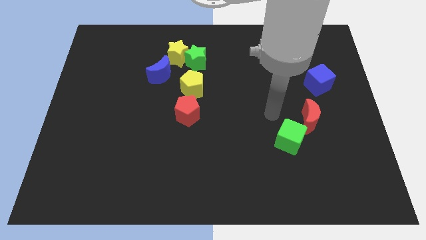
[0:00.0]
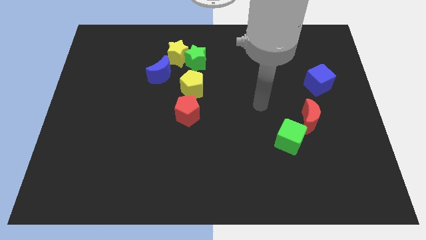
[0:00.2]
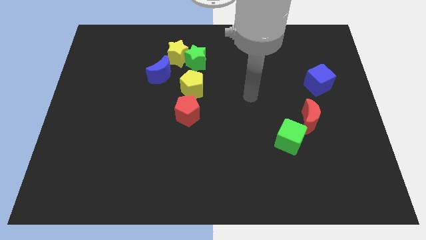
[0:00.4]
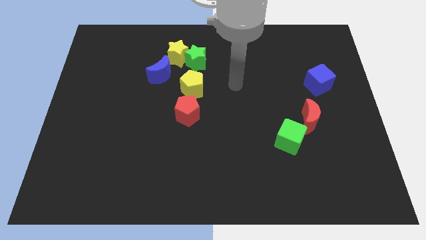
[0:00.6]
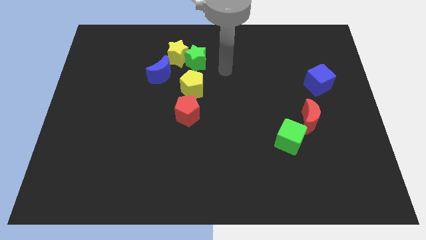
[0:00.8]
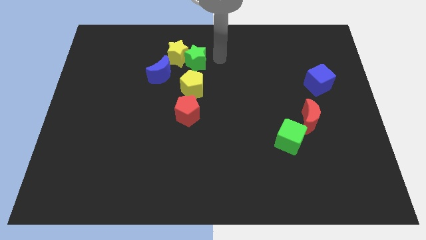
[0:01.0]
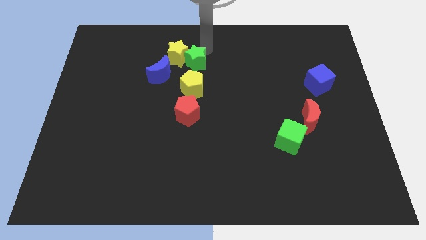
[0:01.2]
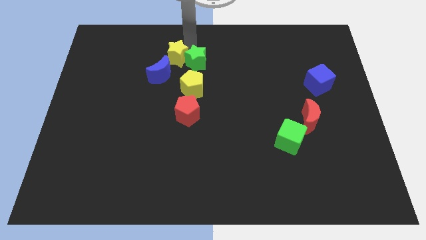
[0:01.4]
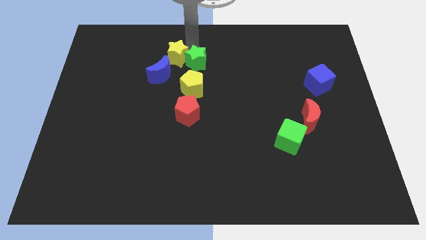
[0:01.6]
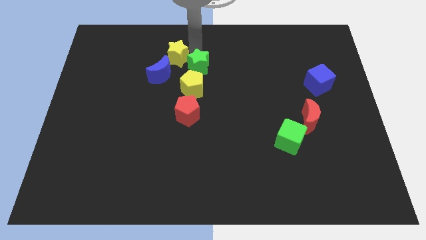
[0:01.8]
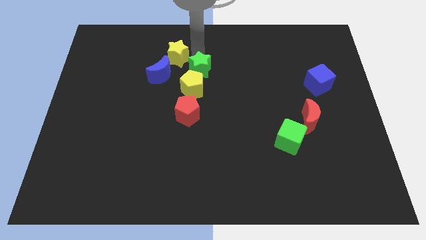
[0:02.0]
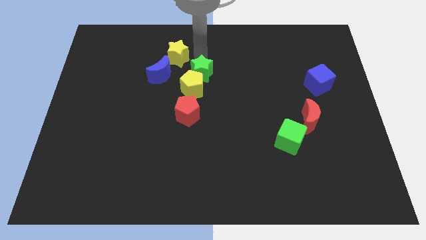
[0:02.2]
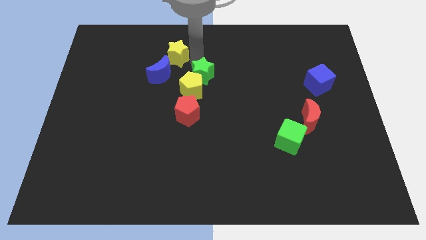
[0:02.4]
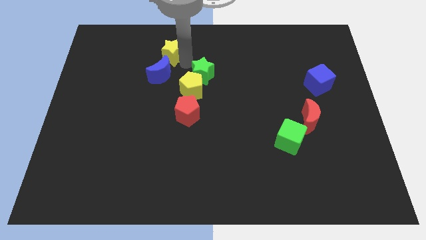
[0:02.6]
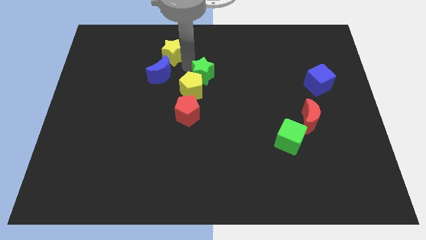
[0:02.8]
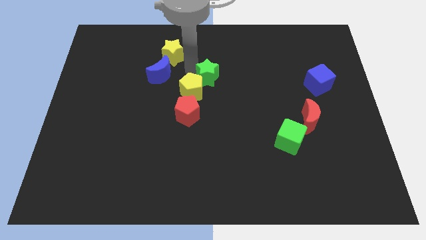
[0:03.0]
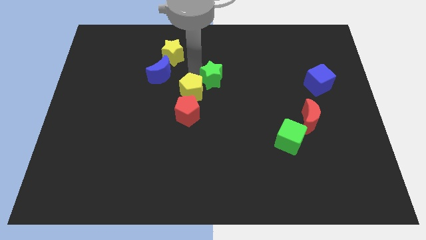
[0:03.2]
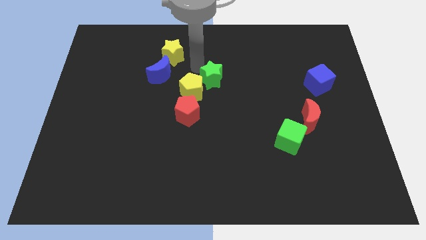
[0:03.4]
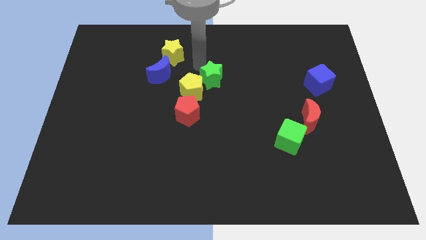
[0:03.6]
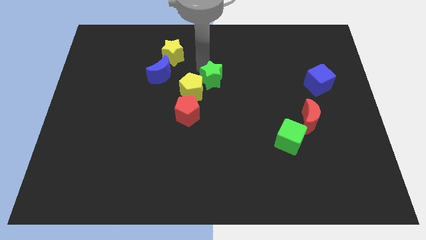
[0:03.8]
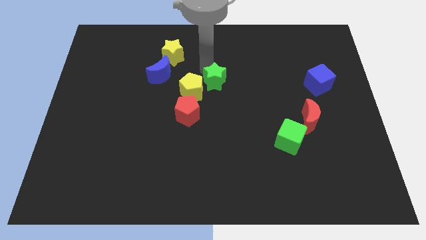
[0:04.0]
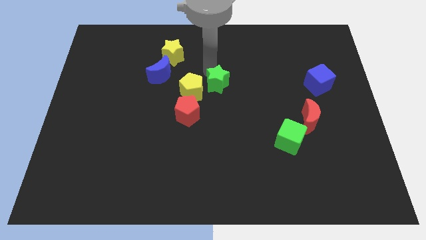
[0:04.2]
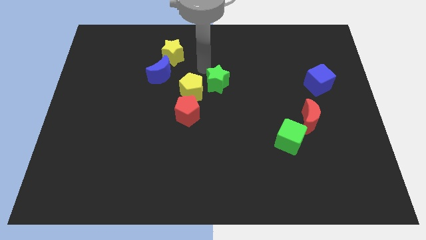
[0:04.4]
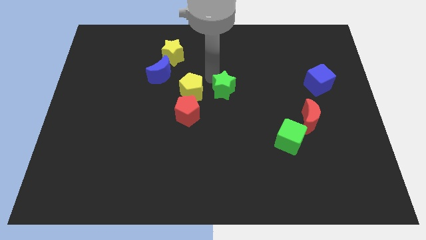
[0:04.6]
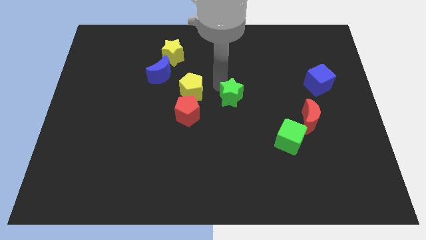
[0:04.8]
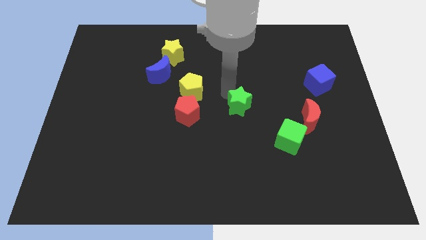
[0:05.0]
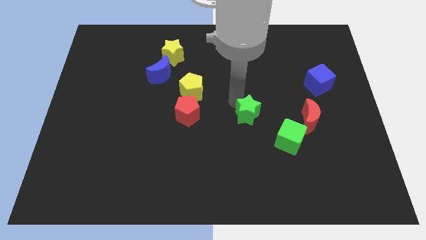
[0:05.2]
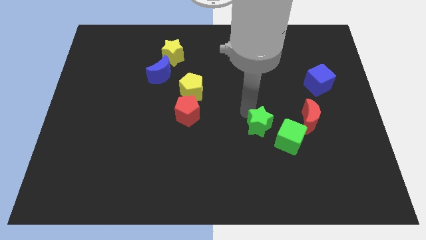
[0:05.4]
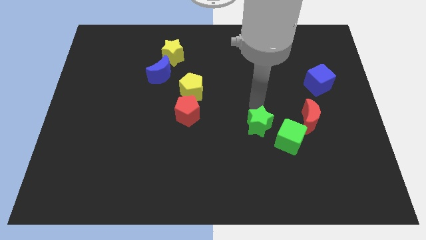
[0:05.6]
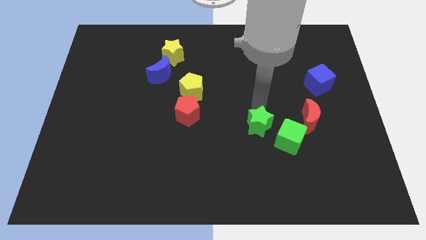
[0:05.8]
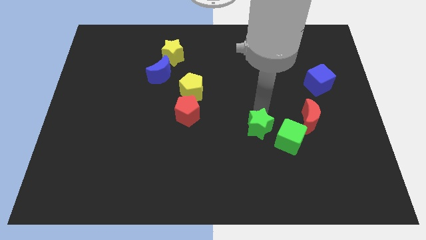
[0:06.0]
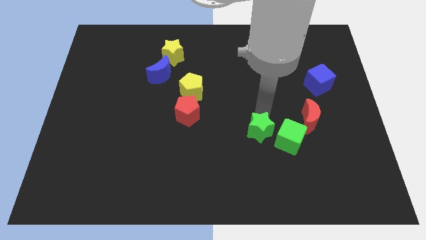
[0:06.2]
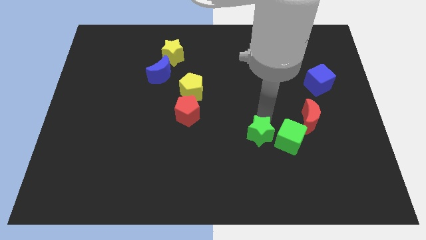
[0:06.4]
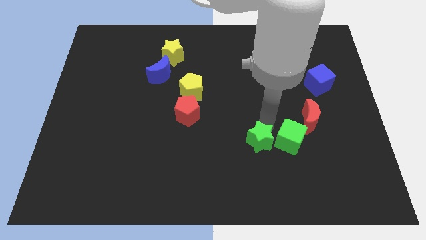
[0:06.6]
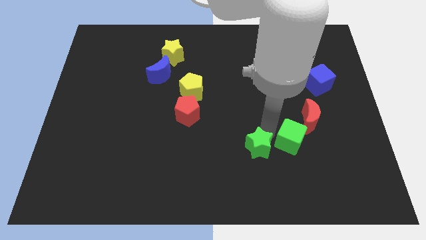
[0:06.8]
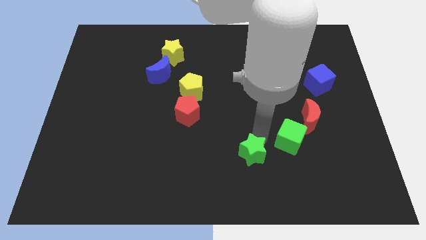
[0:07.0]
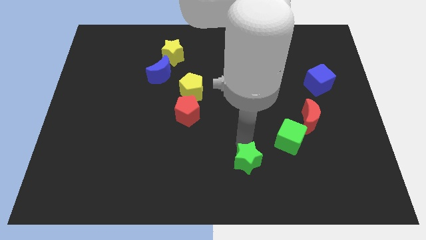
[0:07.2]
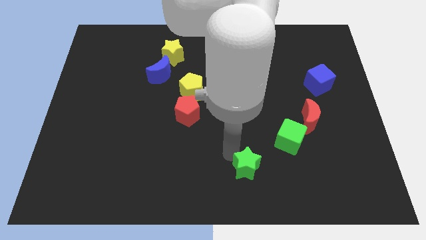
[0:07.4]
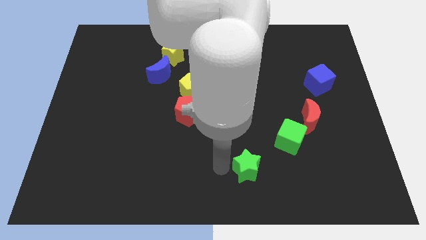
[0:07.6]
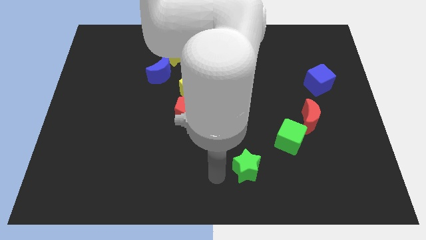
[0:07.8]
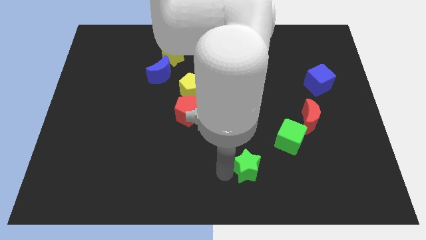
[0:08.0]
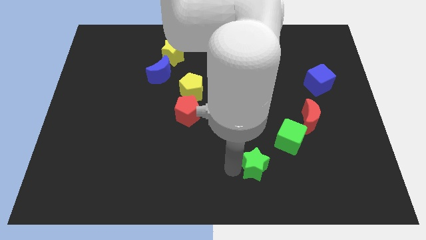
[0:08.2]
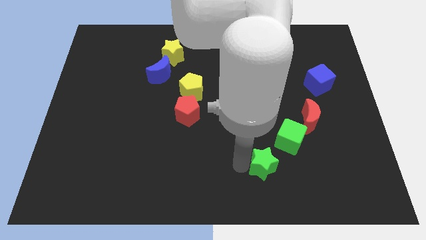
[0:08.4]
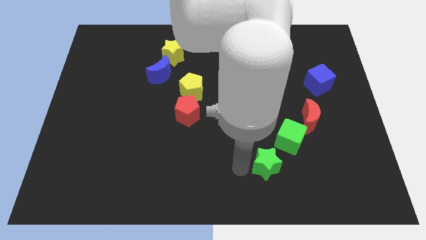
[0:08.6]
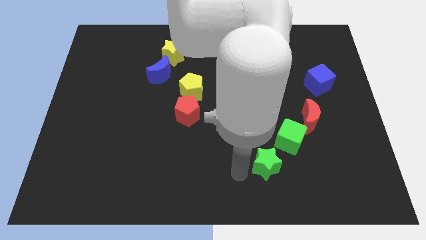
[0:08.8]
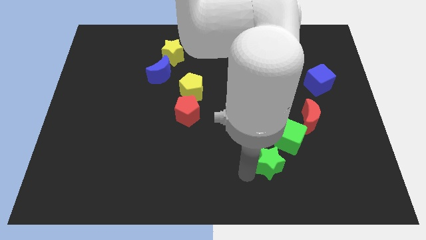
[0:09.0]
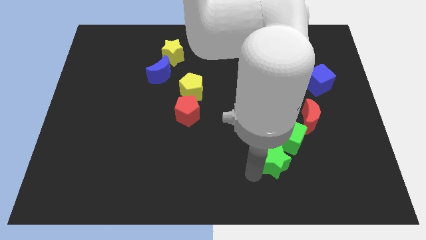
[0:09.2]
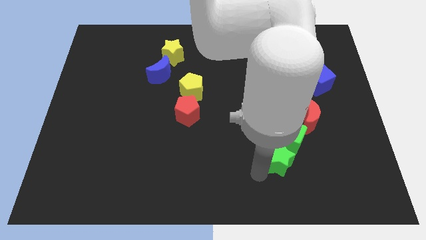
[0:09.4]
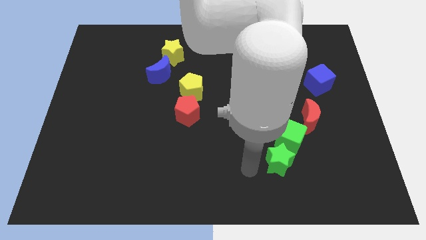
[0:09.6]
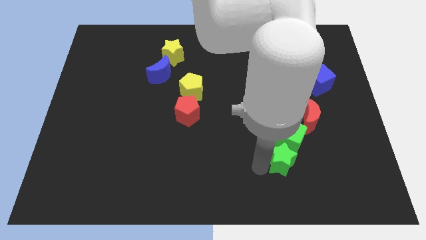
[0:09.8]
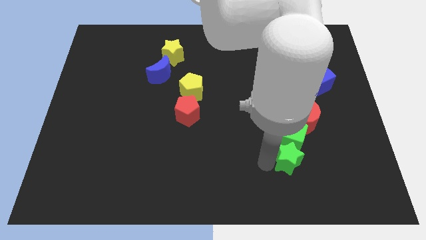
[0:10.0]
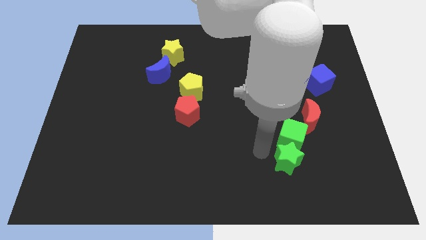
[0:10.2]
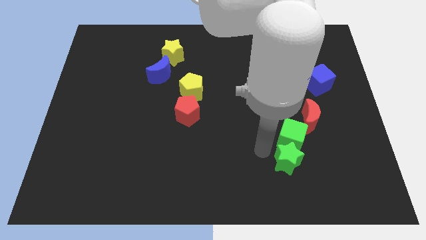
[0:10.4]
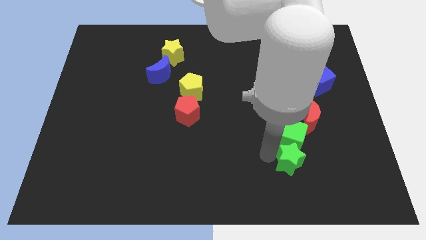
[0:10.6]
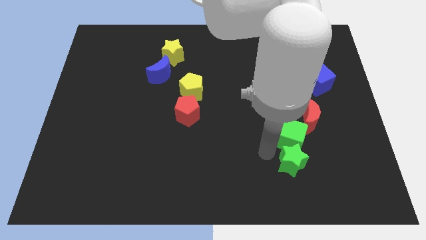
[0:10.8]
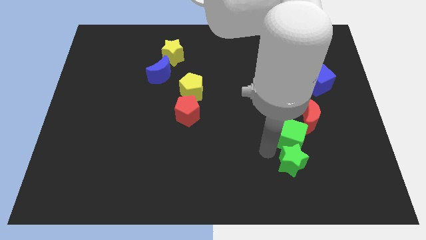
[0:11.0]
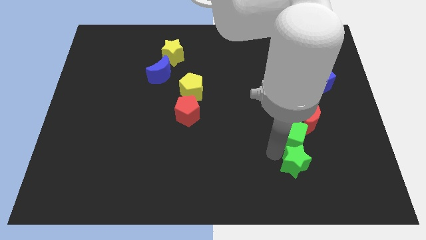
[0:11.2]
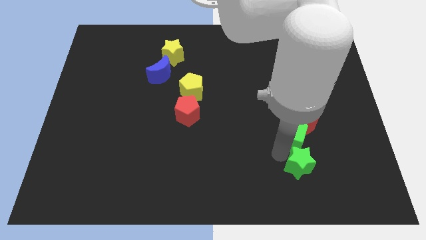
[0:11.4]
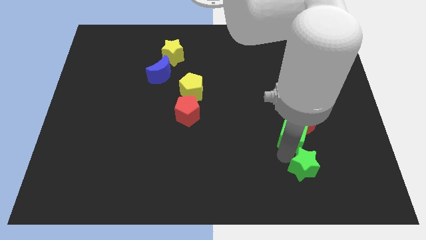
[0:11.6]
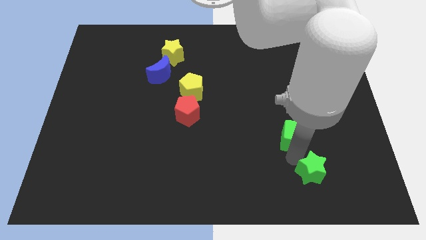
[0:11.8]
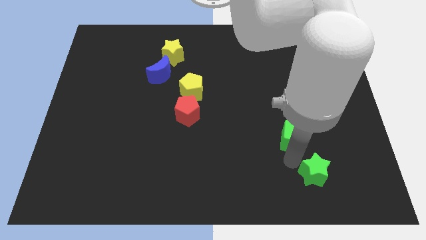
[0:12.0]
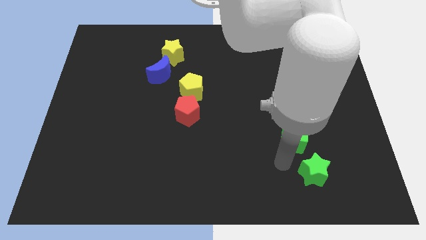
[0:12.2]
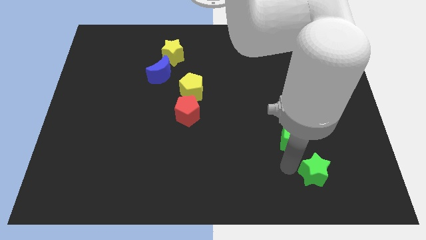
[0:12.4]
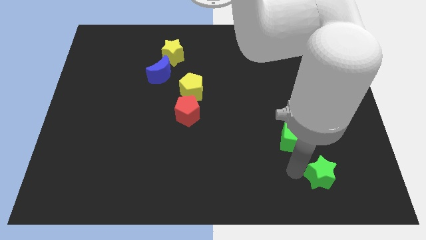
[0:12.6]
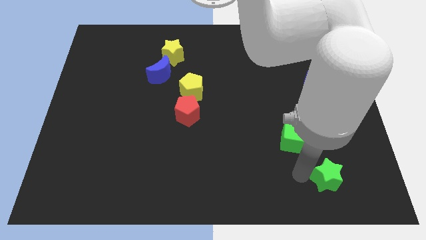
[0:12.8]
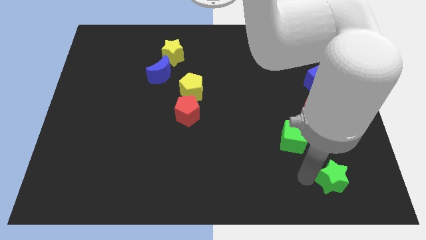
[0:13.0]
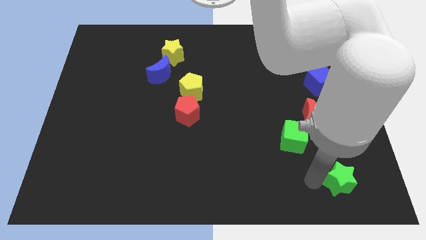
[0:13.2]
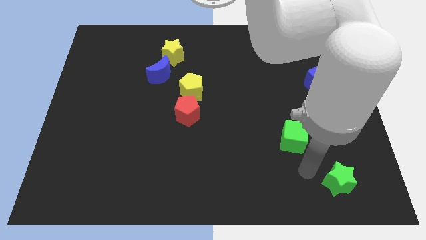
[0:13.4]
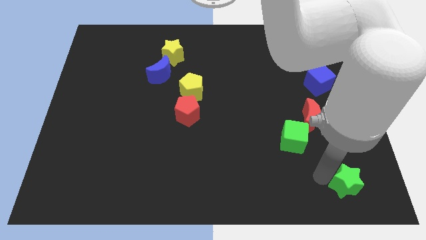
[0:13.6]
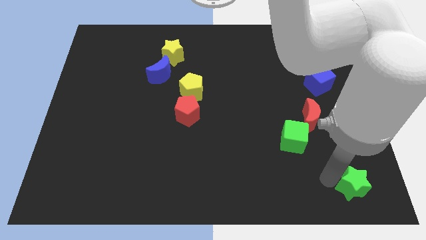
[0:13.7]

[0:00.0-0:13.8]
put the green star to the bottom right
